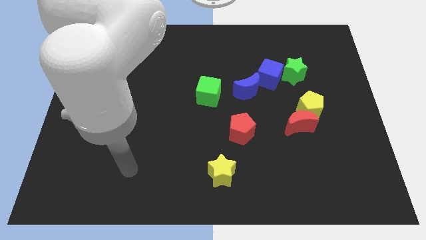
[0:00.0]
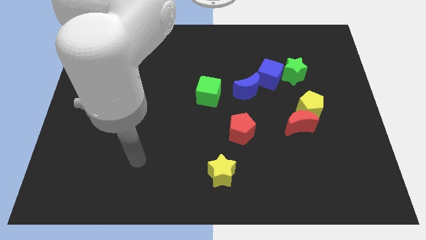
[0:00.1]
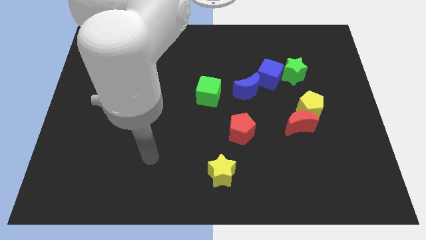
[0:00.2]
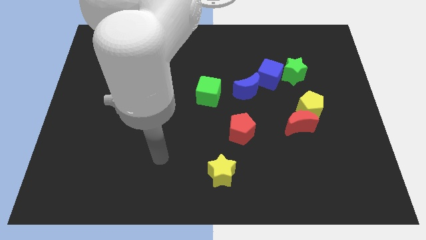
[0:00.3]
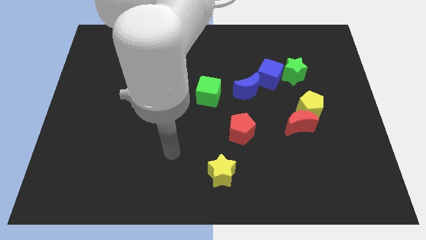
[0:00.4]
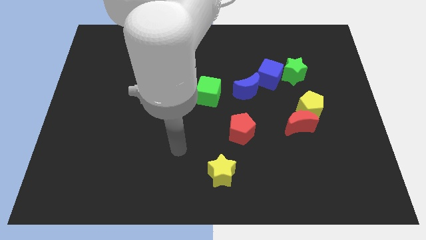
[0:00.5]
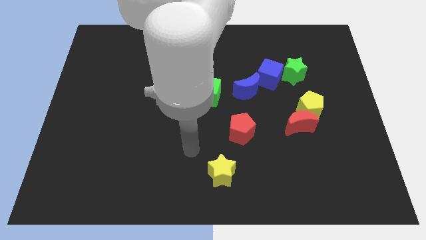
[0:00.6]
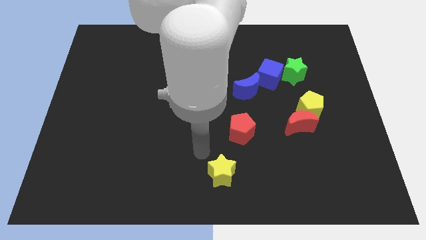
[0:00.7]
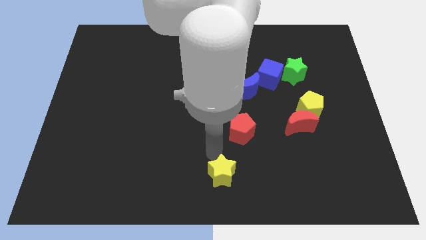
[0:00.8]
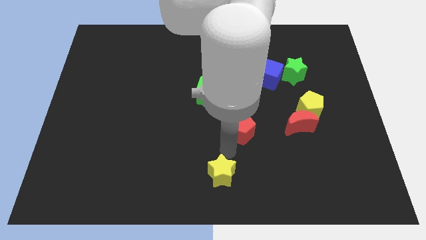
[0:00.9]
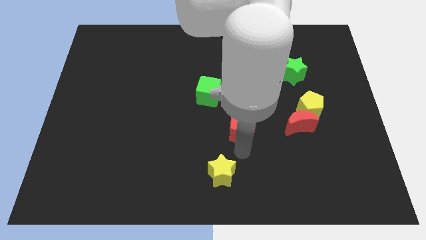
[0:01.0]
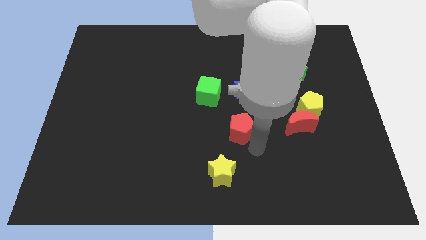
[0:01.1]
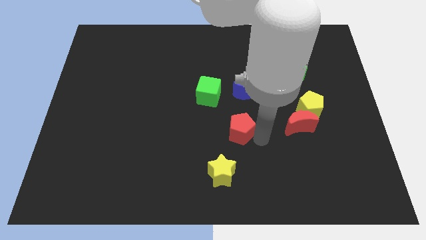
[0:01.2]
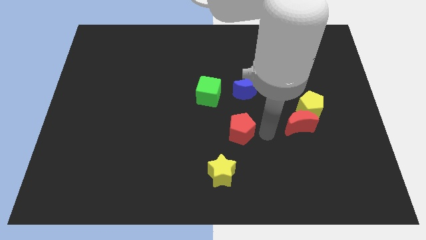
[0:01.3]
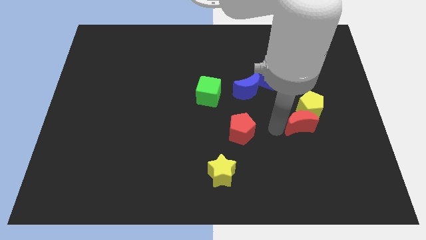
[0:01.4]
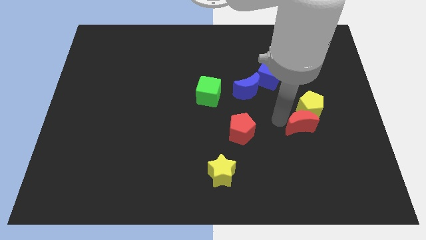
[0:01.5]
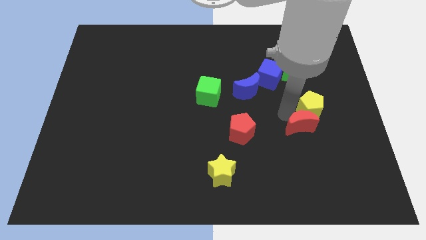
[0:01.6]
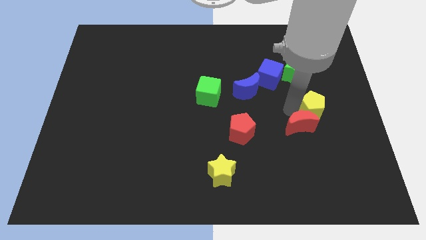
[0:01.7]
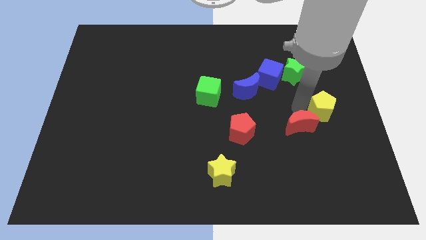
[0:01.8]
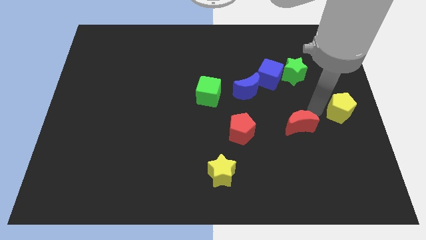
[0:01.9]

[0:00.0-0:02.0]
separate the red moon from the yellow pentagon

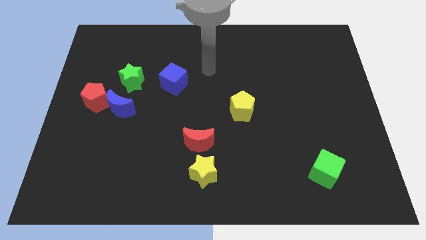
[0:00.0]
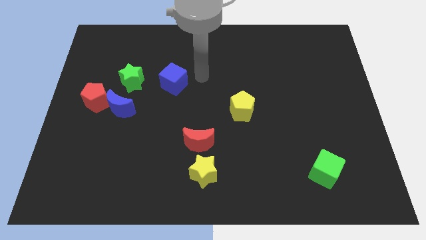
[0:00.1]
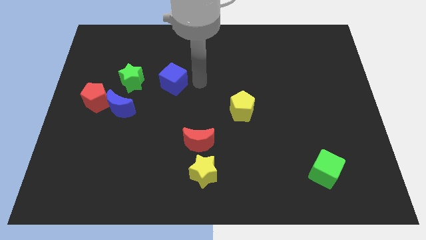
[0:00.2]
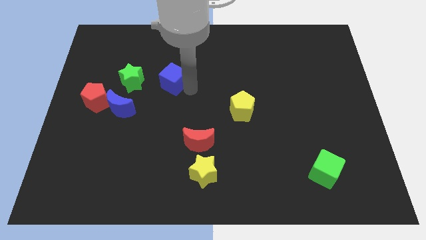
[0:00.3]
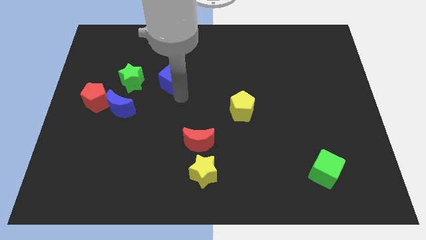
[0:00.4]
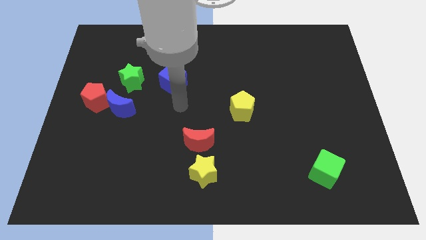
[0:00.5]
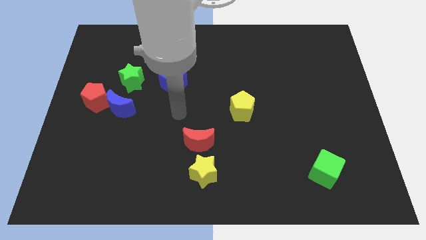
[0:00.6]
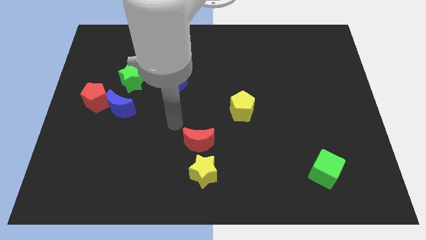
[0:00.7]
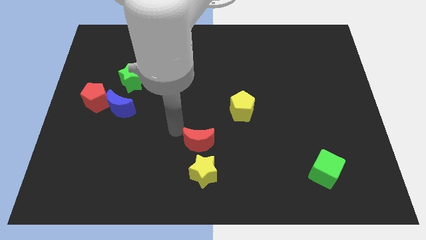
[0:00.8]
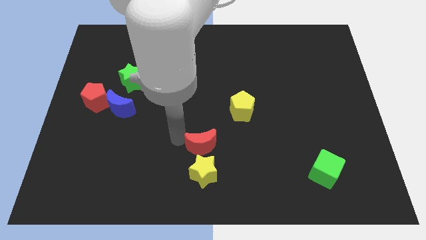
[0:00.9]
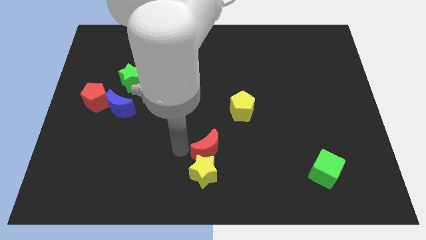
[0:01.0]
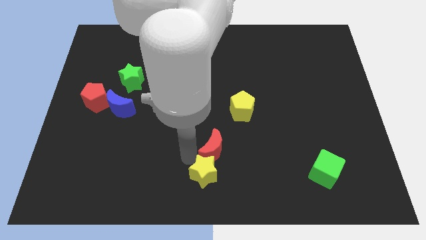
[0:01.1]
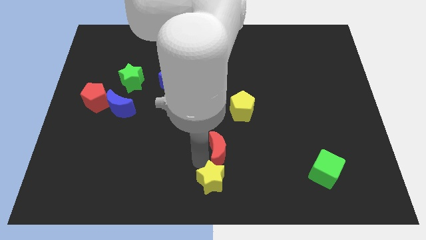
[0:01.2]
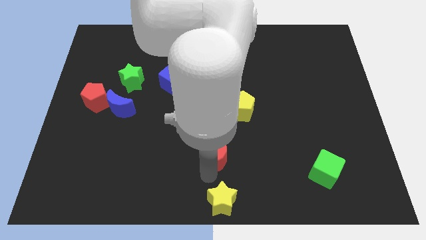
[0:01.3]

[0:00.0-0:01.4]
separate the red moon from the yellow star

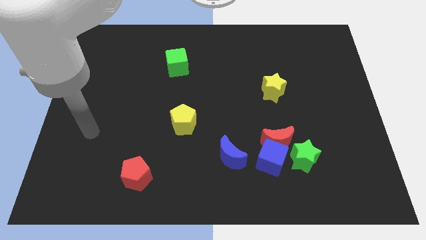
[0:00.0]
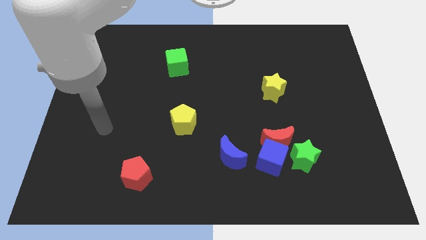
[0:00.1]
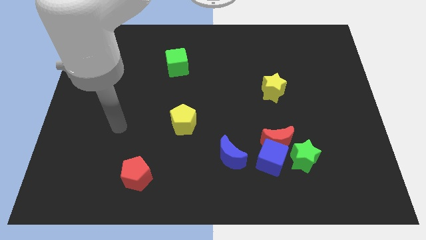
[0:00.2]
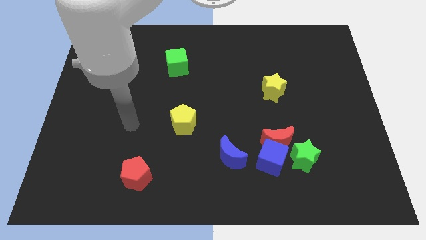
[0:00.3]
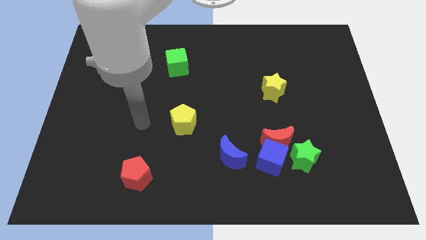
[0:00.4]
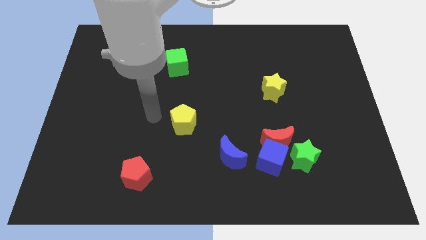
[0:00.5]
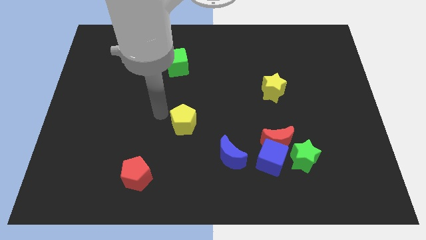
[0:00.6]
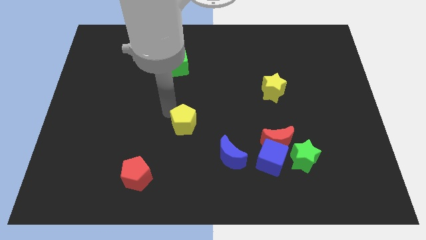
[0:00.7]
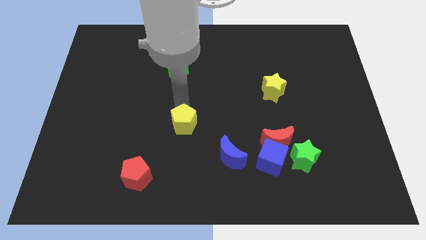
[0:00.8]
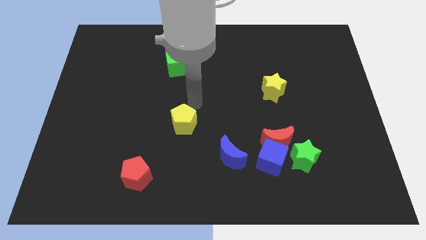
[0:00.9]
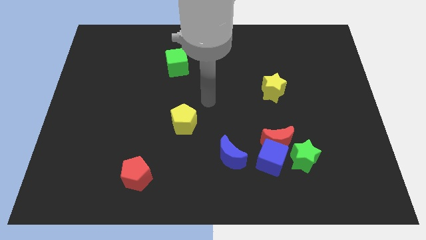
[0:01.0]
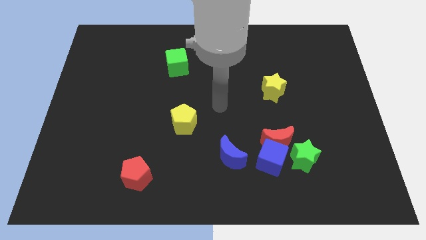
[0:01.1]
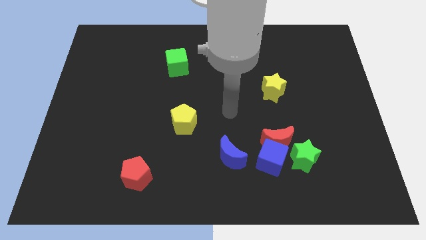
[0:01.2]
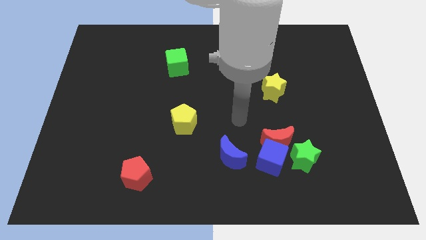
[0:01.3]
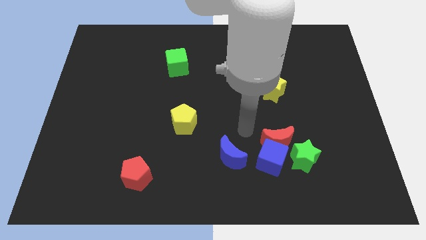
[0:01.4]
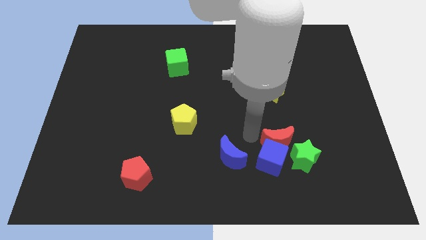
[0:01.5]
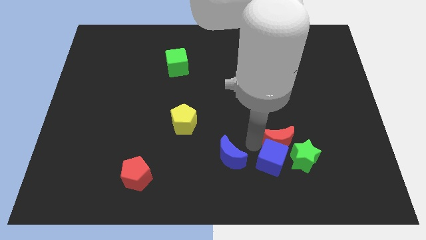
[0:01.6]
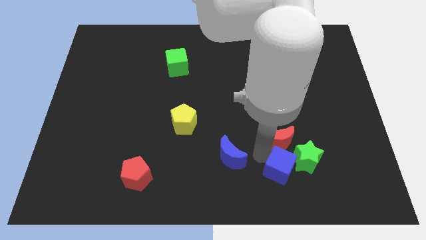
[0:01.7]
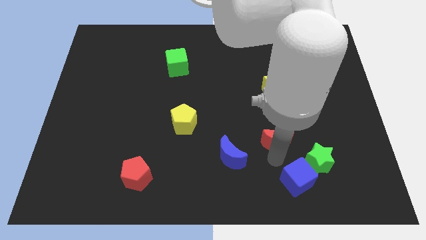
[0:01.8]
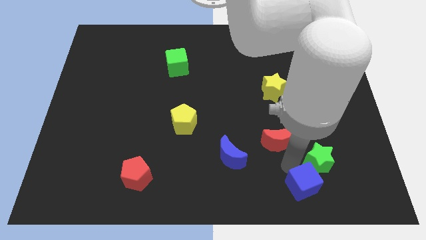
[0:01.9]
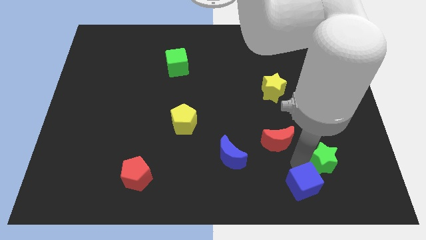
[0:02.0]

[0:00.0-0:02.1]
separate the red moon from the blue cube and green star

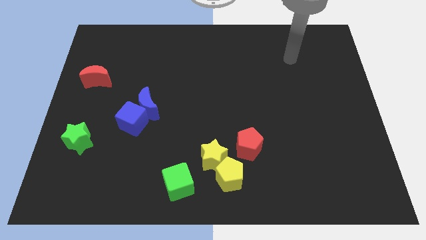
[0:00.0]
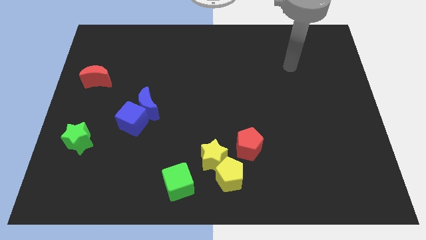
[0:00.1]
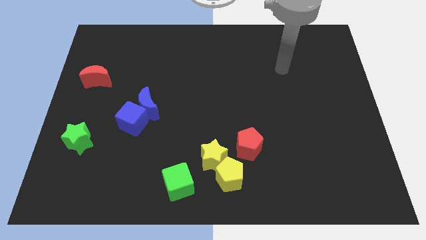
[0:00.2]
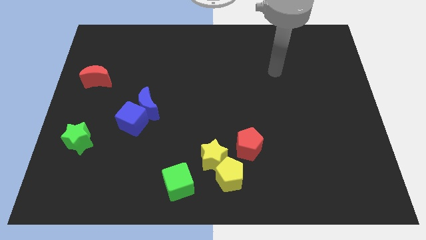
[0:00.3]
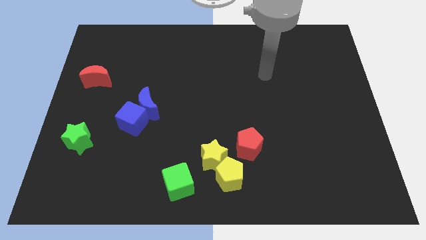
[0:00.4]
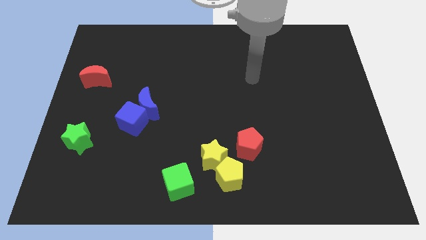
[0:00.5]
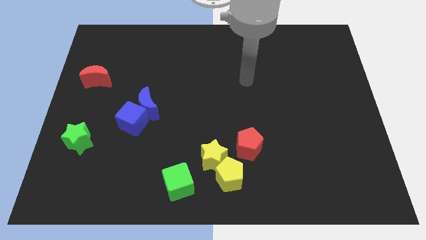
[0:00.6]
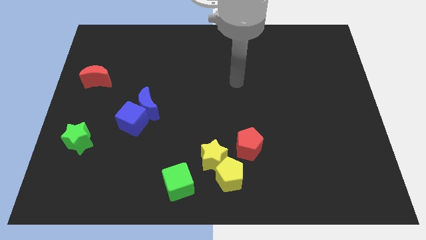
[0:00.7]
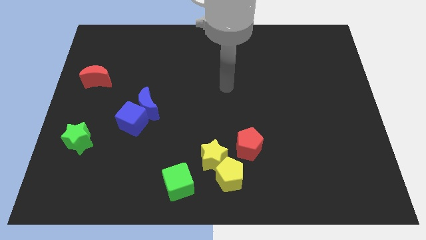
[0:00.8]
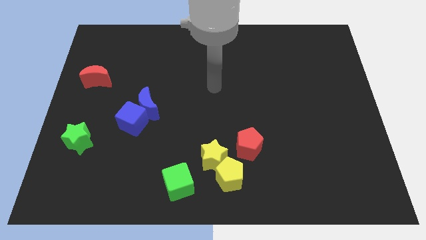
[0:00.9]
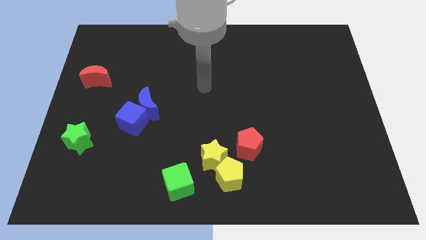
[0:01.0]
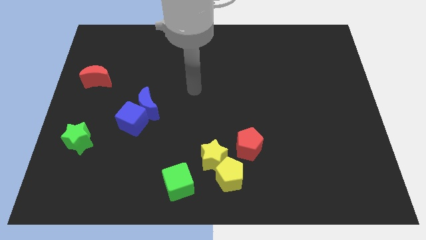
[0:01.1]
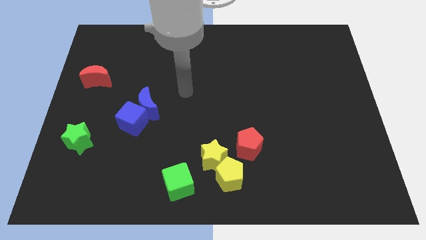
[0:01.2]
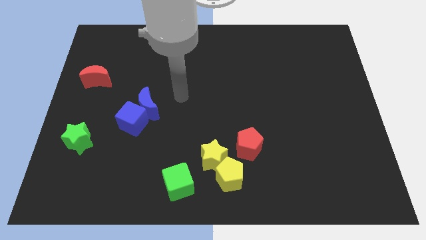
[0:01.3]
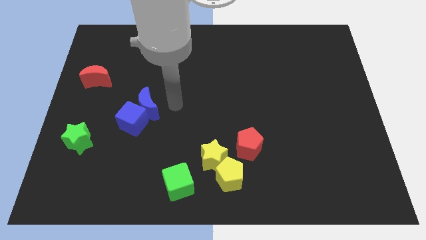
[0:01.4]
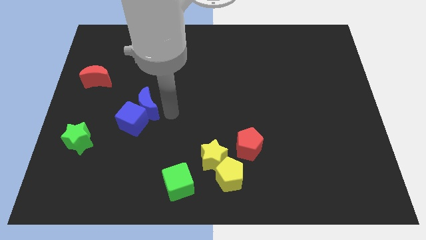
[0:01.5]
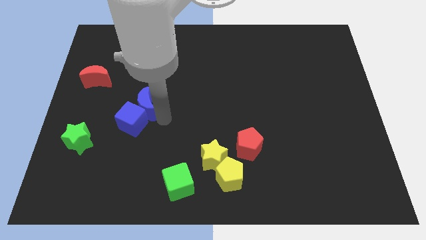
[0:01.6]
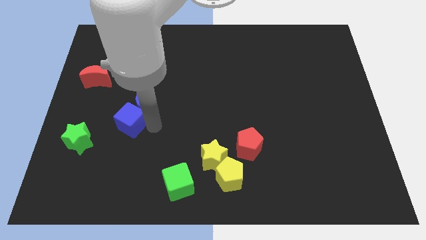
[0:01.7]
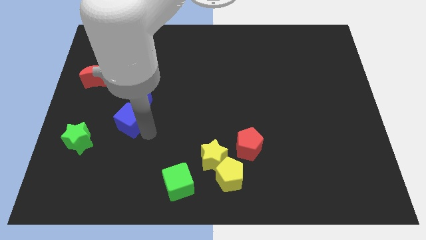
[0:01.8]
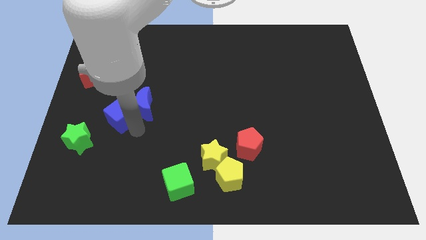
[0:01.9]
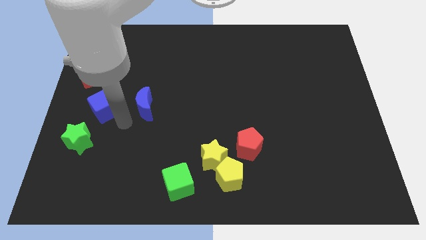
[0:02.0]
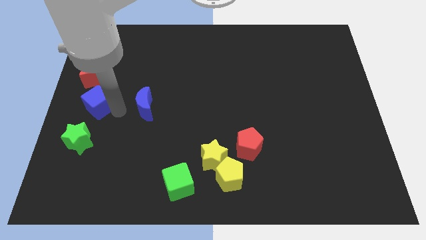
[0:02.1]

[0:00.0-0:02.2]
move the blue moon away from the blue cube

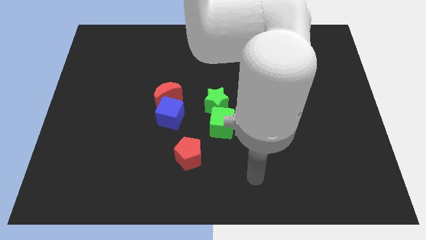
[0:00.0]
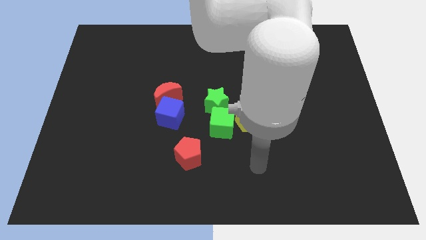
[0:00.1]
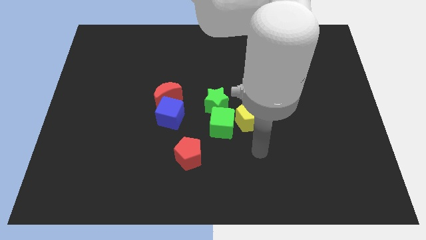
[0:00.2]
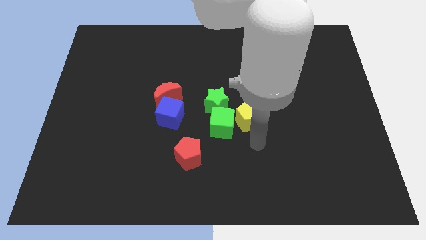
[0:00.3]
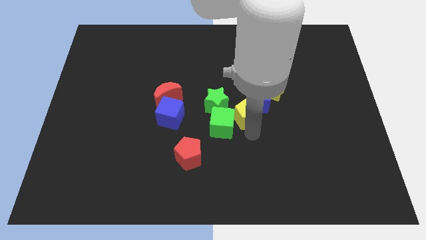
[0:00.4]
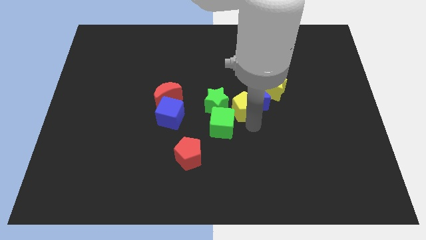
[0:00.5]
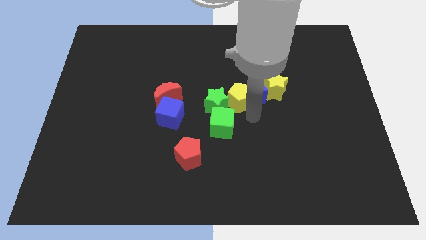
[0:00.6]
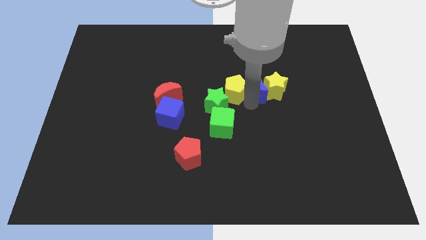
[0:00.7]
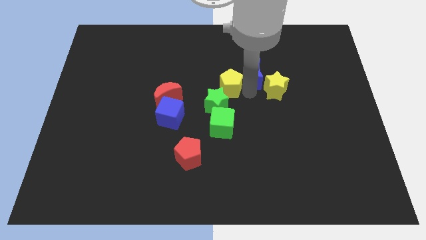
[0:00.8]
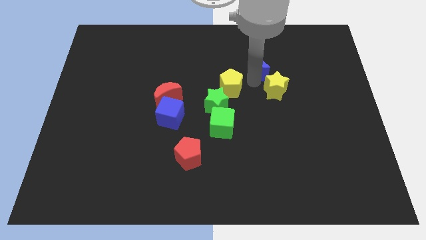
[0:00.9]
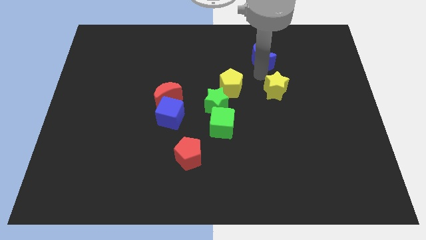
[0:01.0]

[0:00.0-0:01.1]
pull the yellow star apart from the blue moon

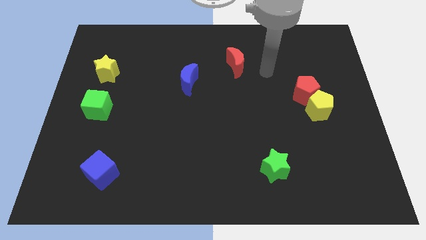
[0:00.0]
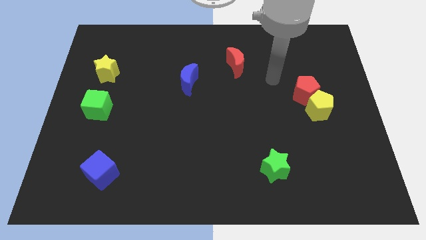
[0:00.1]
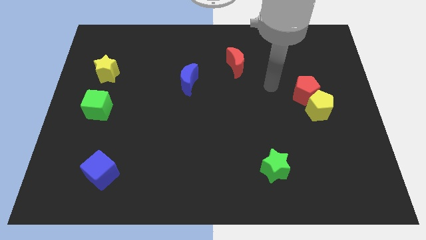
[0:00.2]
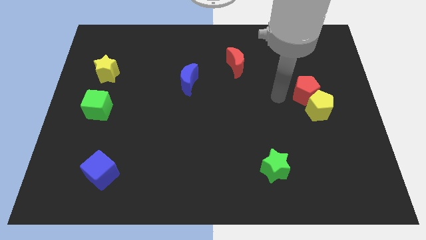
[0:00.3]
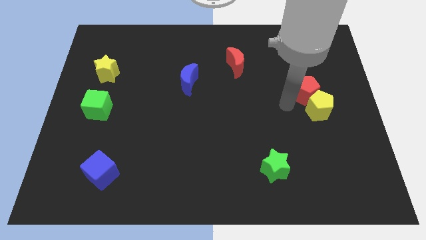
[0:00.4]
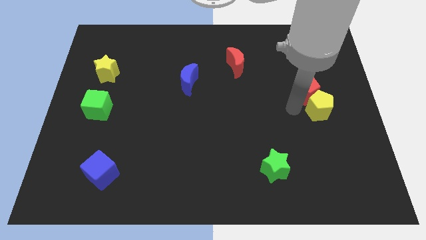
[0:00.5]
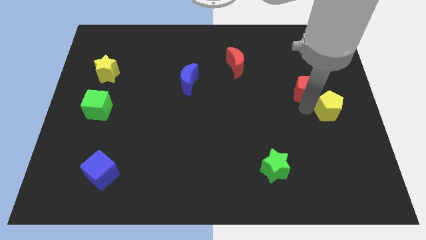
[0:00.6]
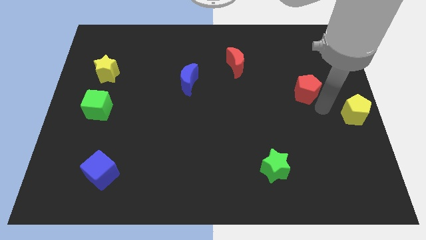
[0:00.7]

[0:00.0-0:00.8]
separate the red pentagon from the yellow pentagon
